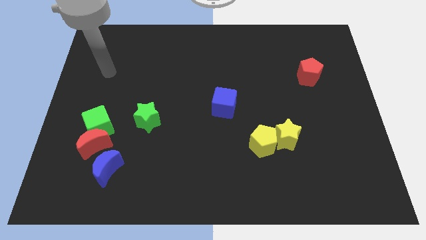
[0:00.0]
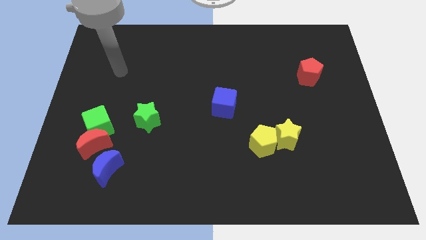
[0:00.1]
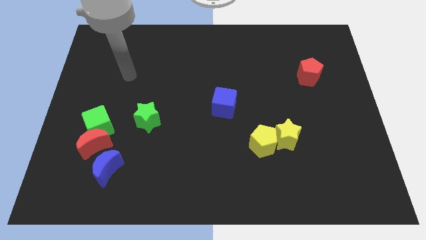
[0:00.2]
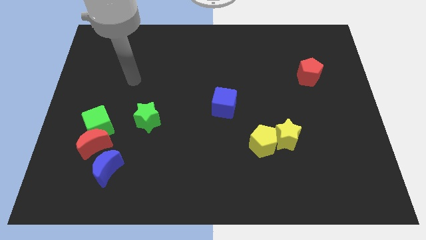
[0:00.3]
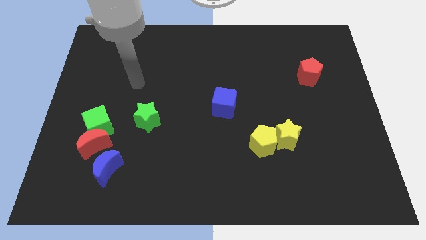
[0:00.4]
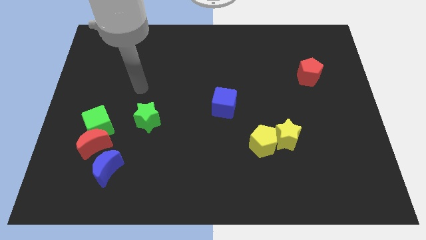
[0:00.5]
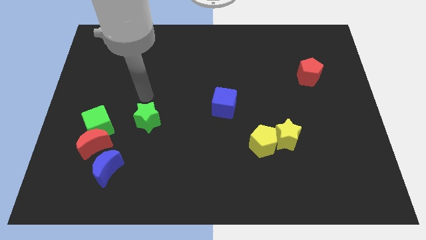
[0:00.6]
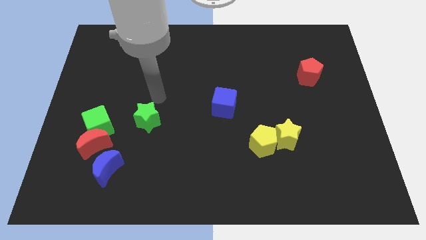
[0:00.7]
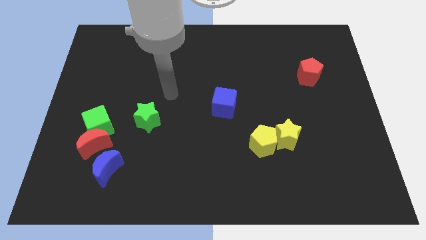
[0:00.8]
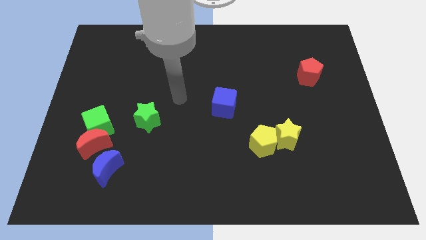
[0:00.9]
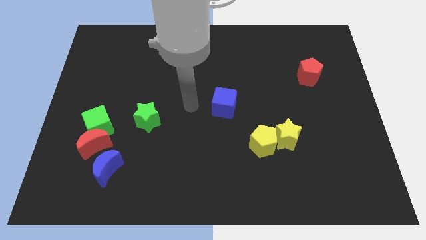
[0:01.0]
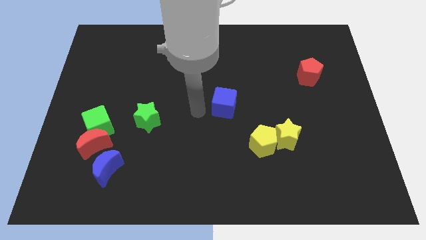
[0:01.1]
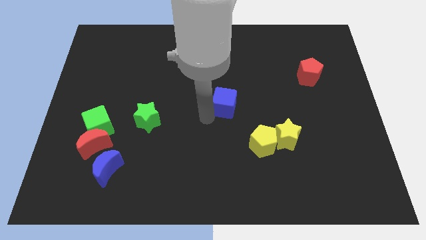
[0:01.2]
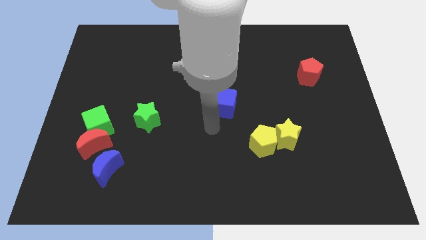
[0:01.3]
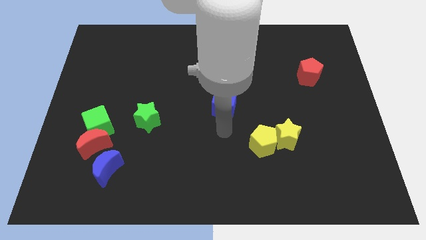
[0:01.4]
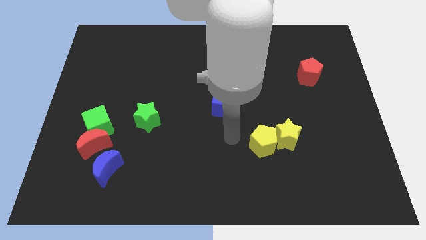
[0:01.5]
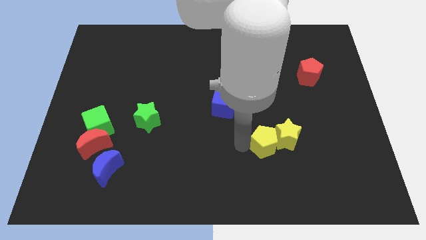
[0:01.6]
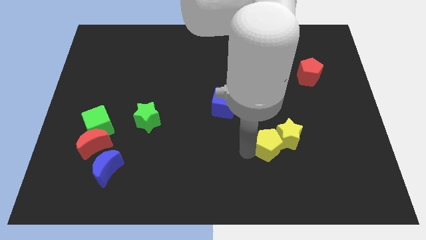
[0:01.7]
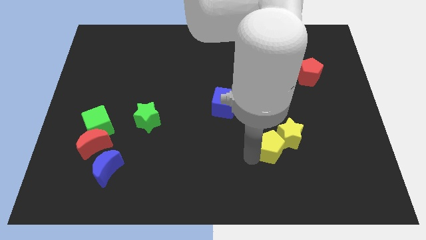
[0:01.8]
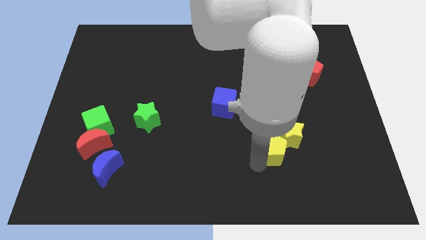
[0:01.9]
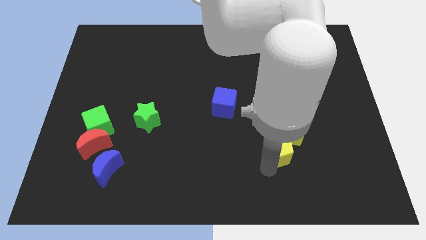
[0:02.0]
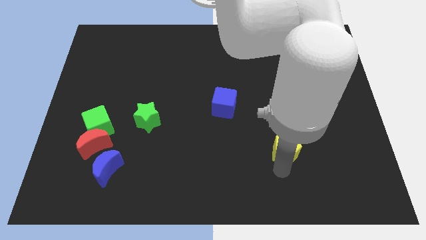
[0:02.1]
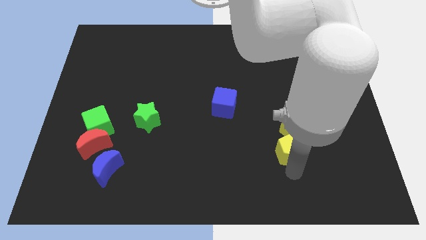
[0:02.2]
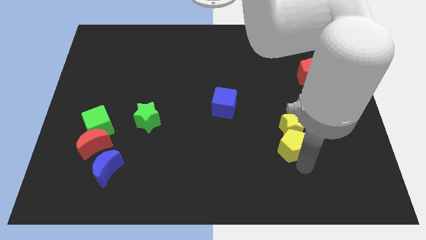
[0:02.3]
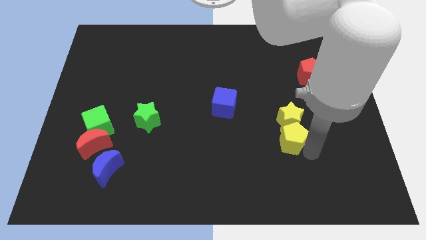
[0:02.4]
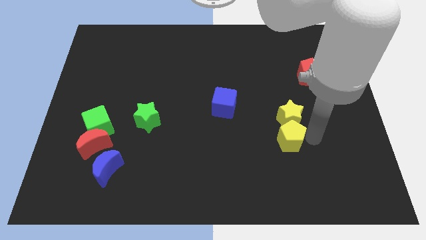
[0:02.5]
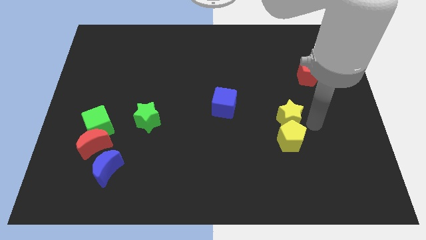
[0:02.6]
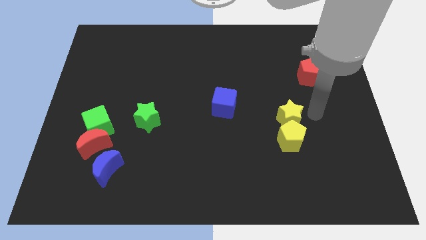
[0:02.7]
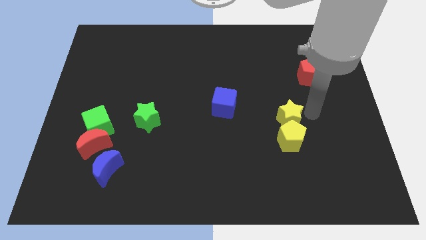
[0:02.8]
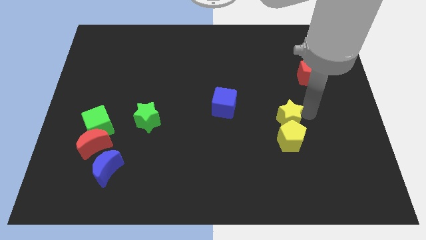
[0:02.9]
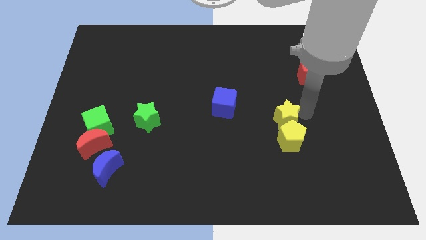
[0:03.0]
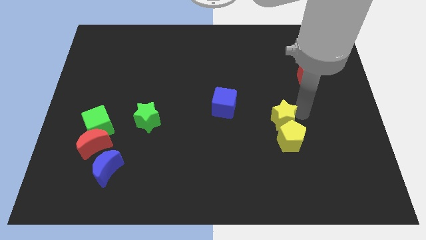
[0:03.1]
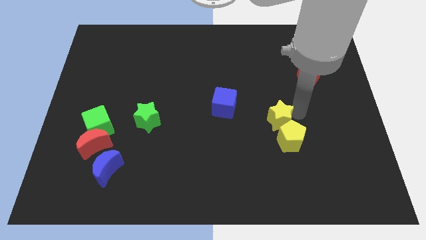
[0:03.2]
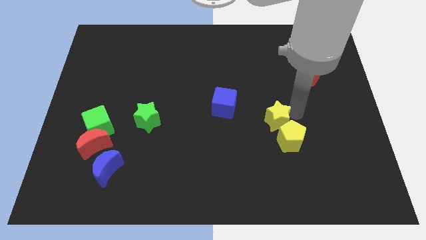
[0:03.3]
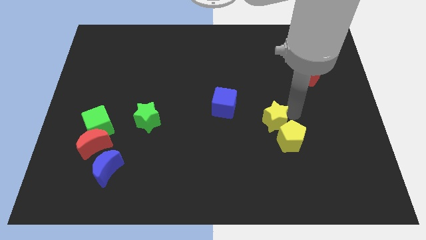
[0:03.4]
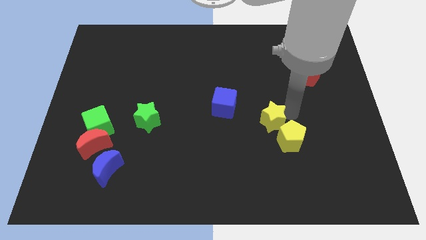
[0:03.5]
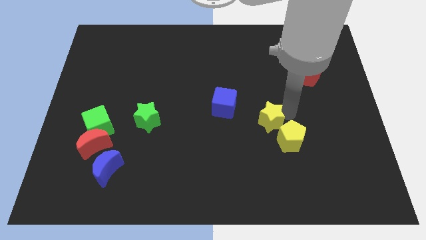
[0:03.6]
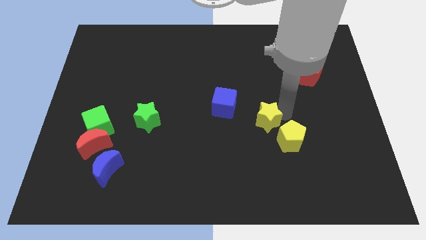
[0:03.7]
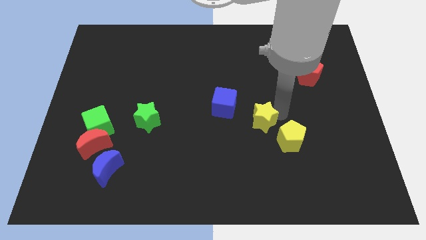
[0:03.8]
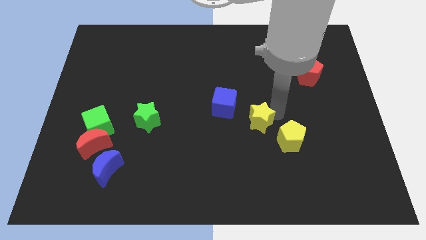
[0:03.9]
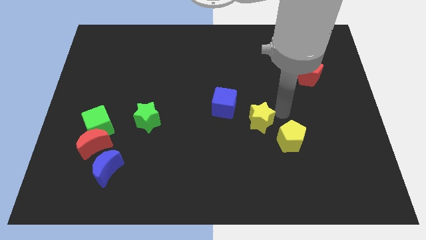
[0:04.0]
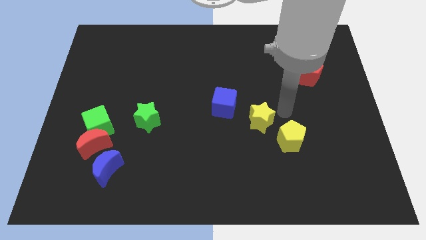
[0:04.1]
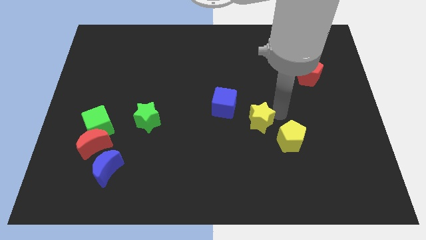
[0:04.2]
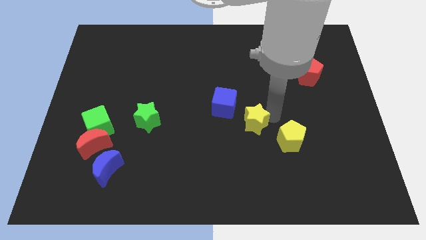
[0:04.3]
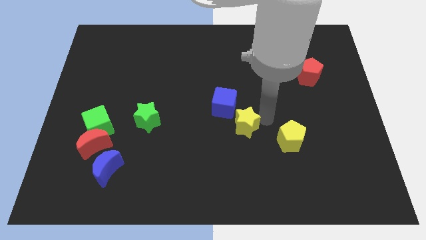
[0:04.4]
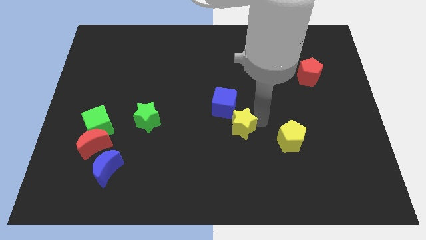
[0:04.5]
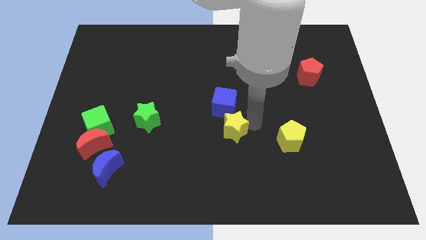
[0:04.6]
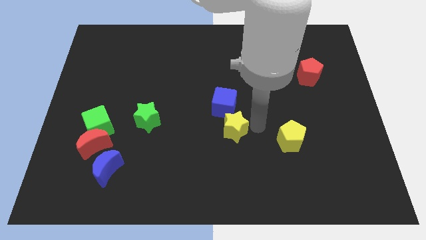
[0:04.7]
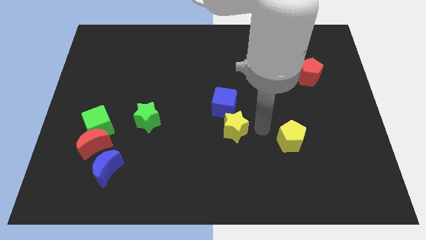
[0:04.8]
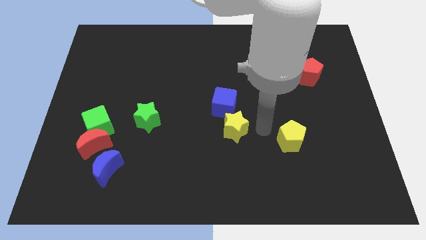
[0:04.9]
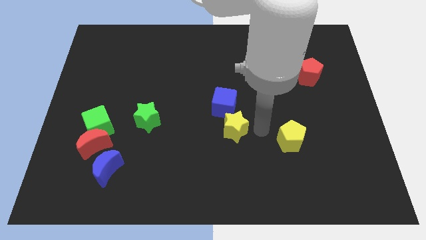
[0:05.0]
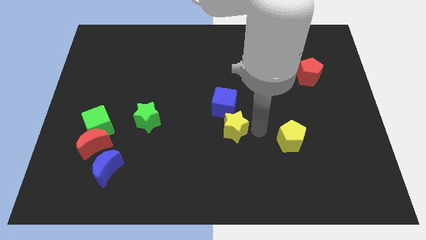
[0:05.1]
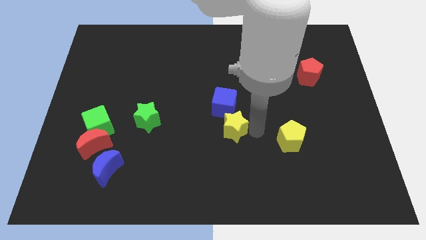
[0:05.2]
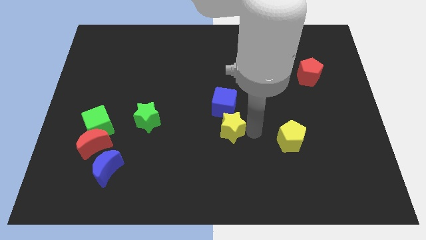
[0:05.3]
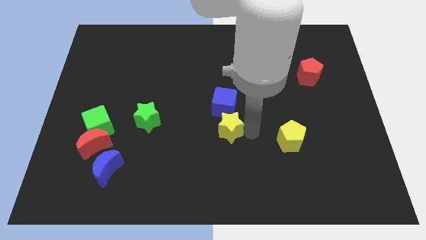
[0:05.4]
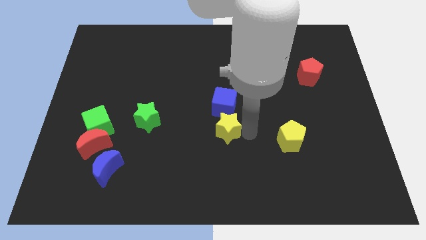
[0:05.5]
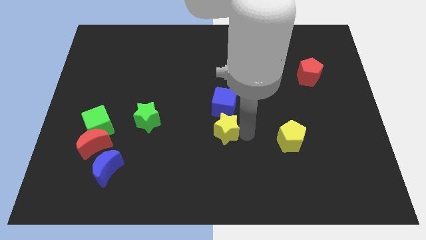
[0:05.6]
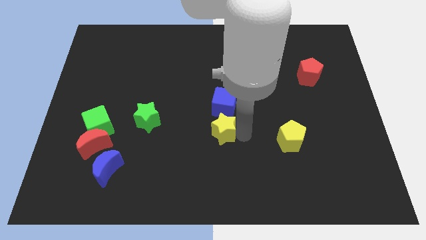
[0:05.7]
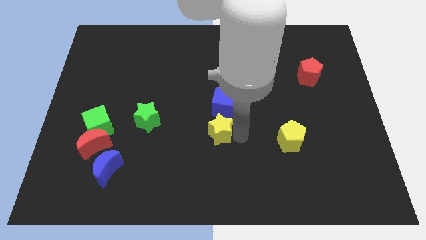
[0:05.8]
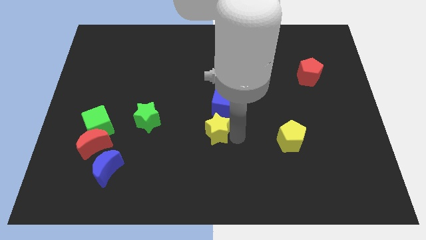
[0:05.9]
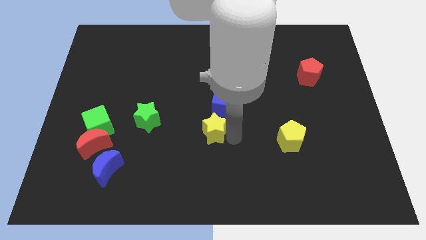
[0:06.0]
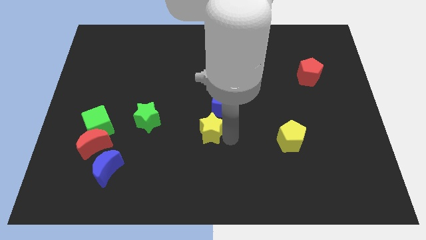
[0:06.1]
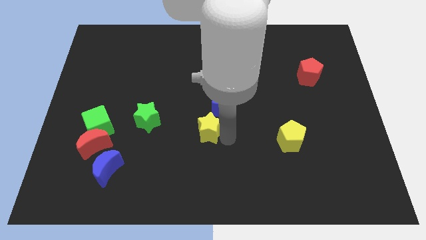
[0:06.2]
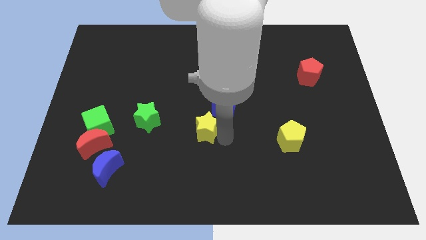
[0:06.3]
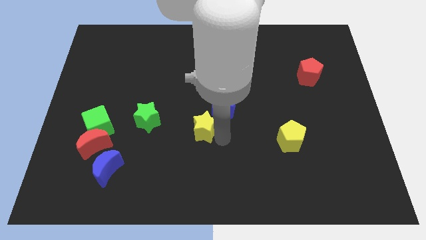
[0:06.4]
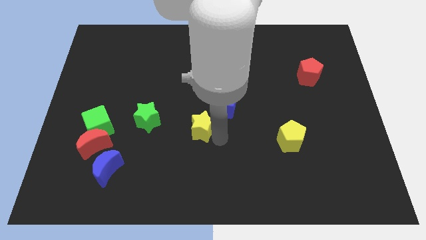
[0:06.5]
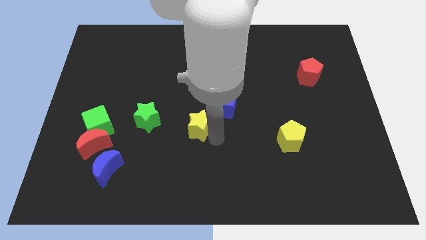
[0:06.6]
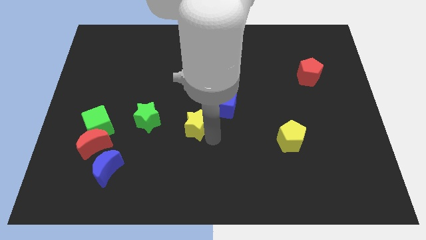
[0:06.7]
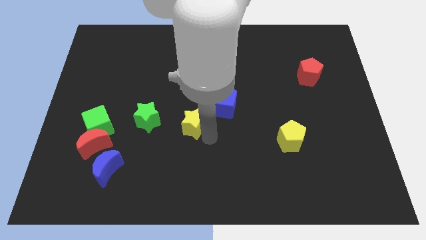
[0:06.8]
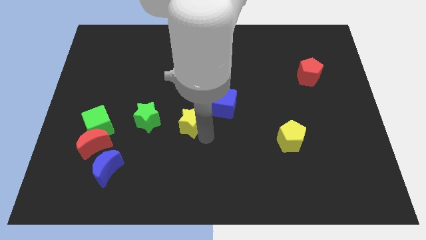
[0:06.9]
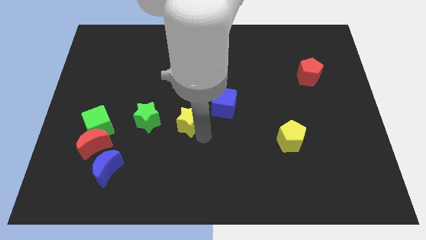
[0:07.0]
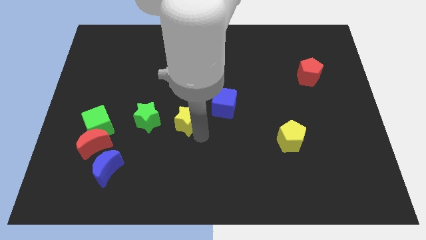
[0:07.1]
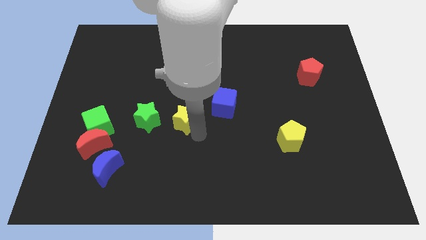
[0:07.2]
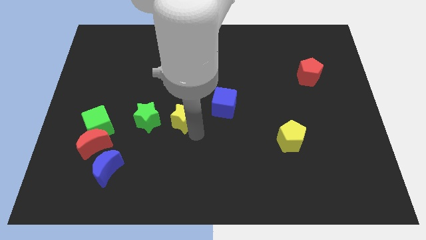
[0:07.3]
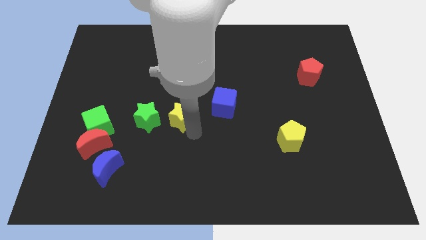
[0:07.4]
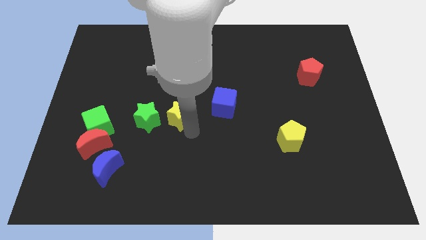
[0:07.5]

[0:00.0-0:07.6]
push the yellow star to the top right of the green star
